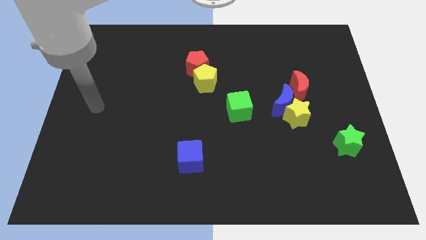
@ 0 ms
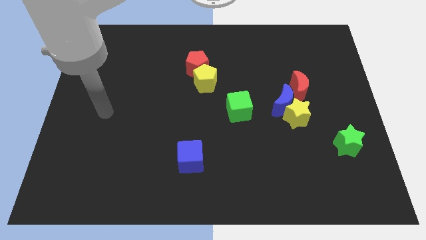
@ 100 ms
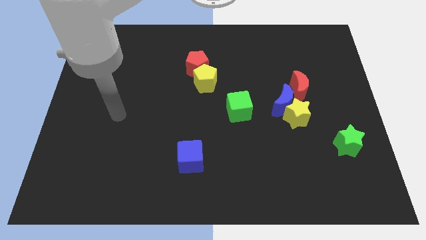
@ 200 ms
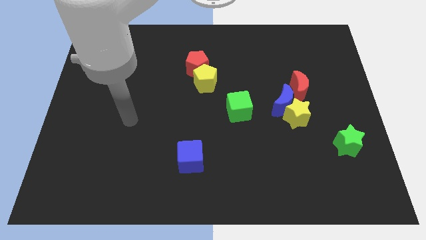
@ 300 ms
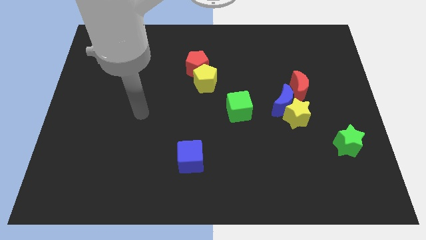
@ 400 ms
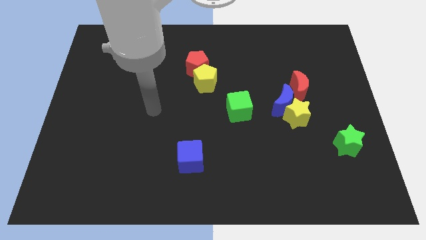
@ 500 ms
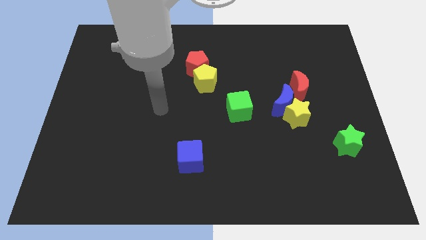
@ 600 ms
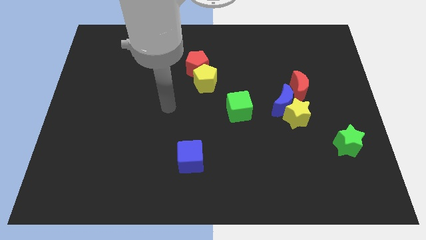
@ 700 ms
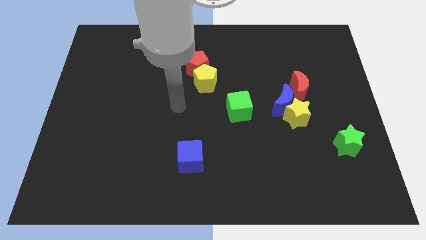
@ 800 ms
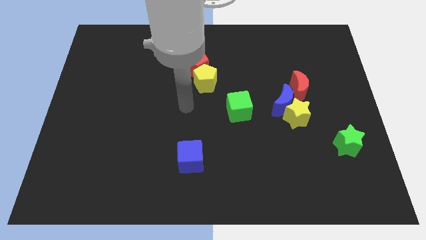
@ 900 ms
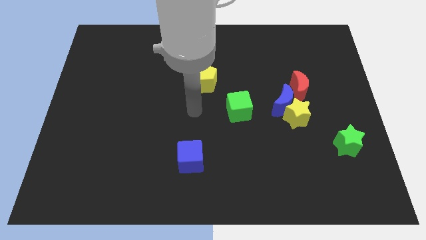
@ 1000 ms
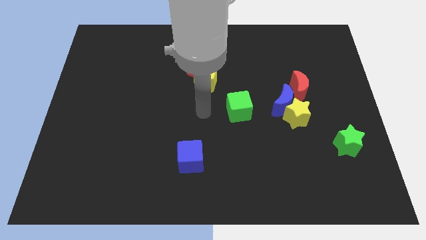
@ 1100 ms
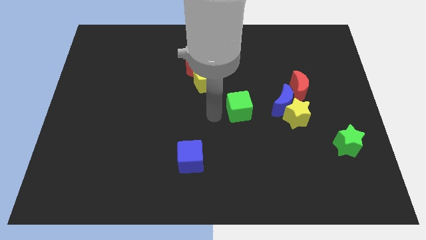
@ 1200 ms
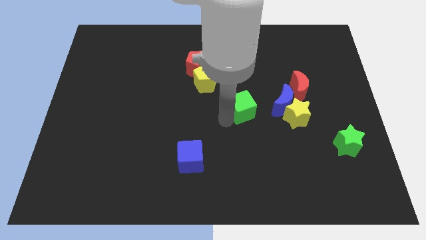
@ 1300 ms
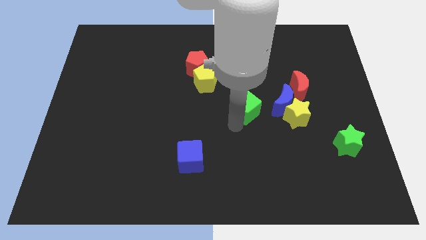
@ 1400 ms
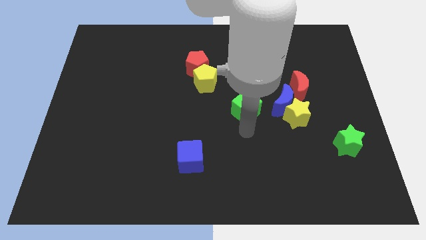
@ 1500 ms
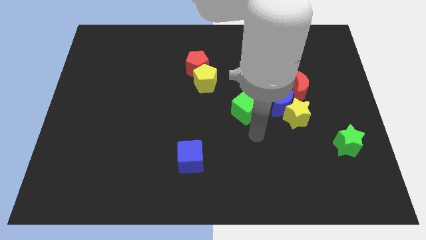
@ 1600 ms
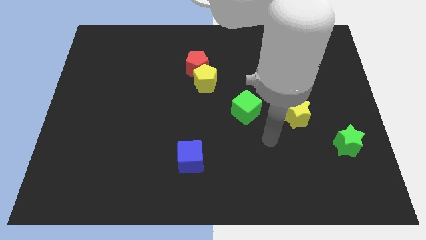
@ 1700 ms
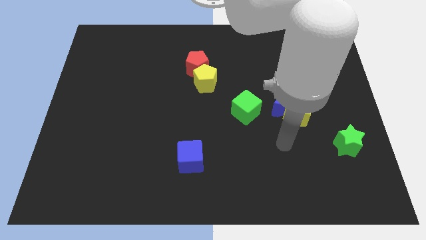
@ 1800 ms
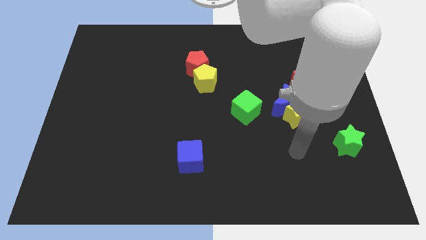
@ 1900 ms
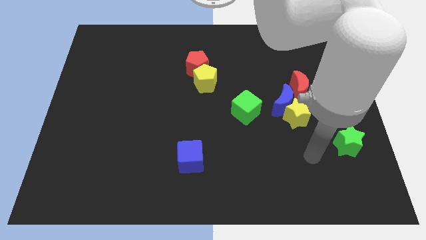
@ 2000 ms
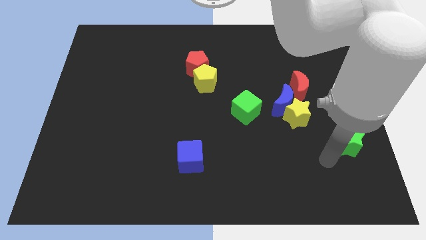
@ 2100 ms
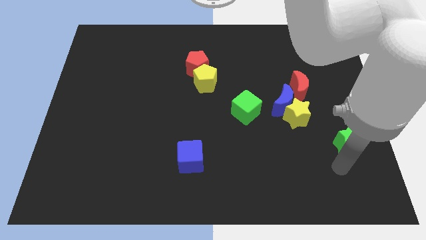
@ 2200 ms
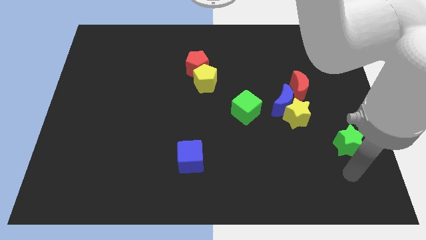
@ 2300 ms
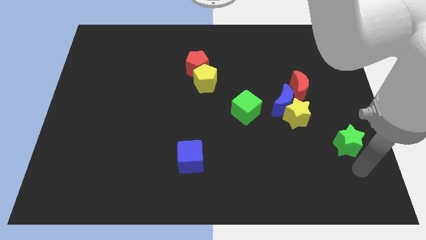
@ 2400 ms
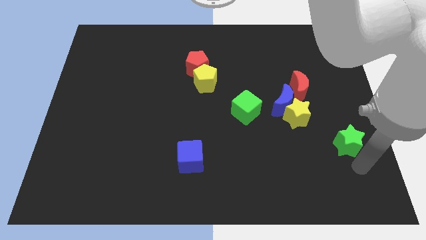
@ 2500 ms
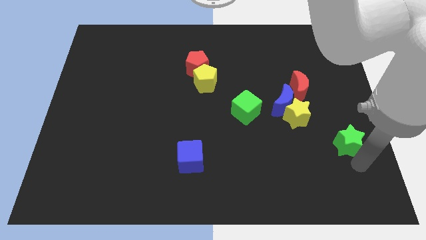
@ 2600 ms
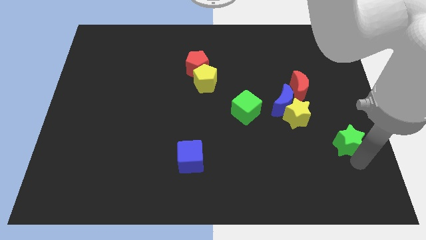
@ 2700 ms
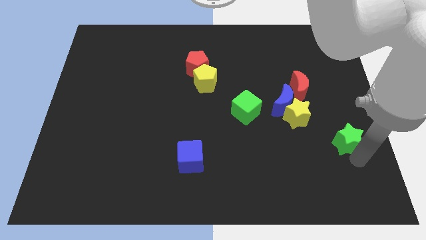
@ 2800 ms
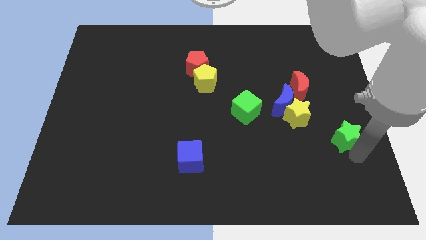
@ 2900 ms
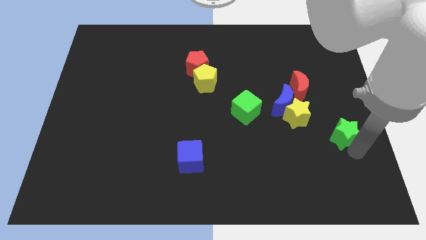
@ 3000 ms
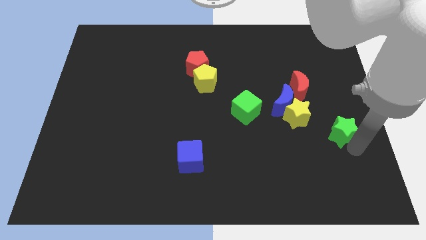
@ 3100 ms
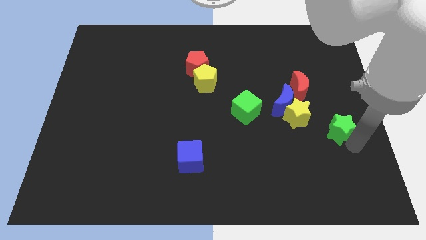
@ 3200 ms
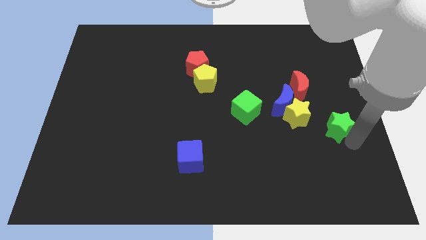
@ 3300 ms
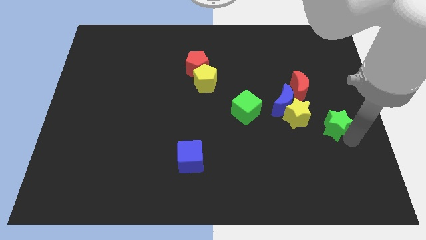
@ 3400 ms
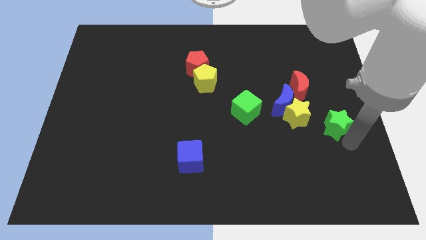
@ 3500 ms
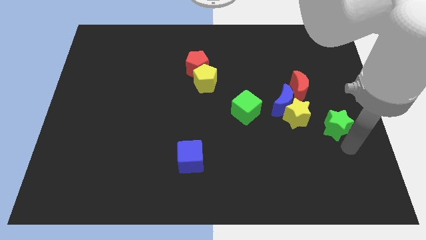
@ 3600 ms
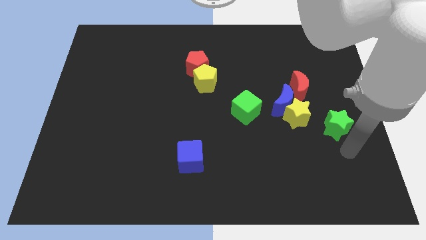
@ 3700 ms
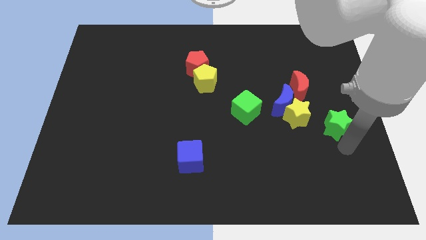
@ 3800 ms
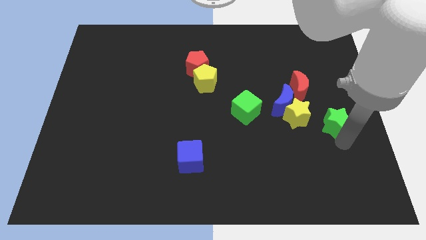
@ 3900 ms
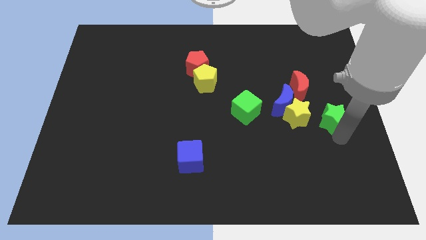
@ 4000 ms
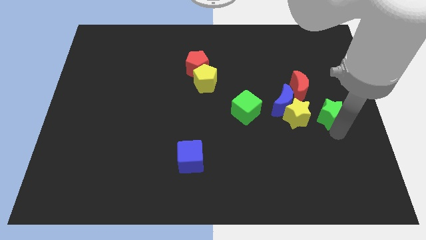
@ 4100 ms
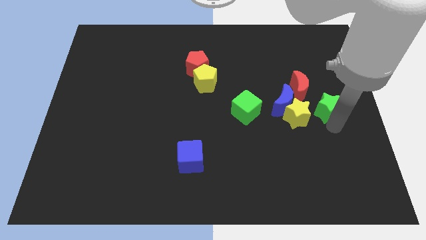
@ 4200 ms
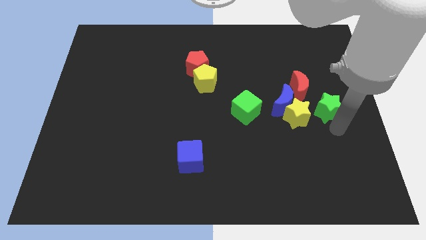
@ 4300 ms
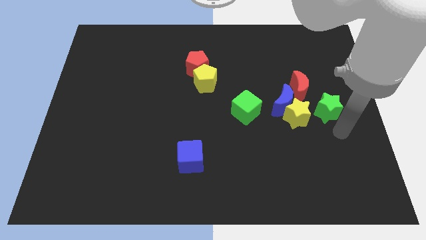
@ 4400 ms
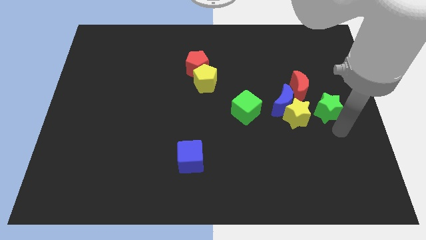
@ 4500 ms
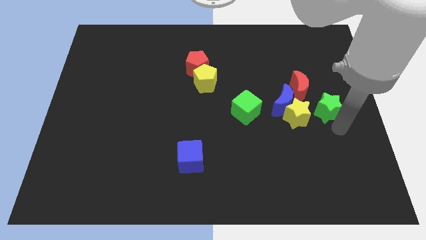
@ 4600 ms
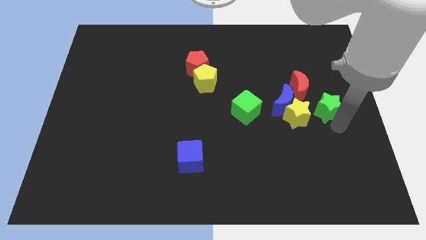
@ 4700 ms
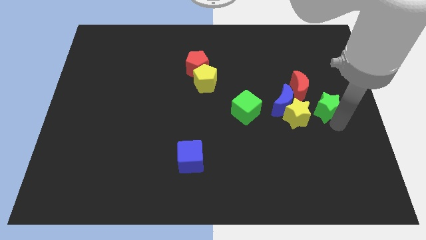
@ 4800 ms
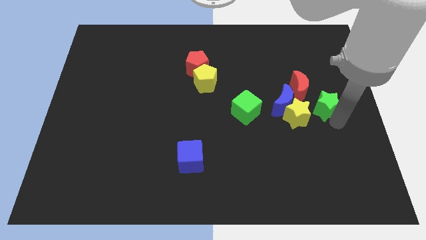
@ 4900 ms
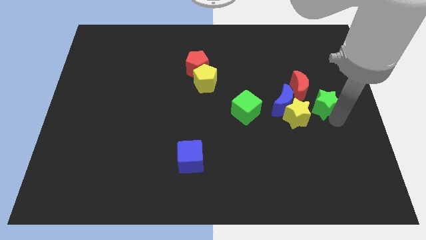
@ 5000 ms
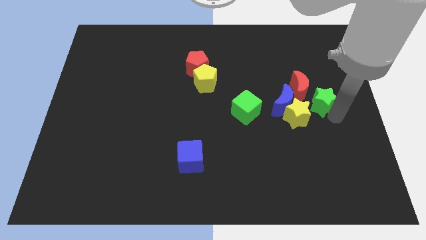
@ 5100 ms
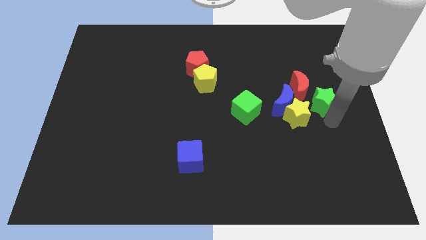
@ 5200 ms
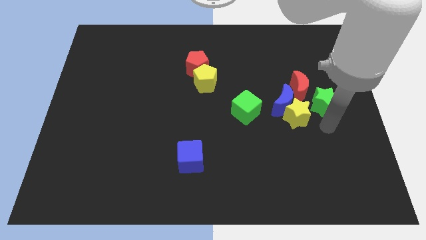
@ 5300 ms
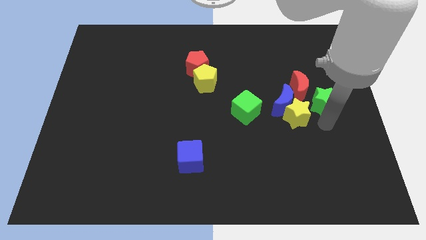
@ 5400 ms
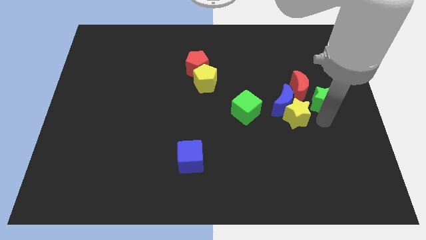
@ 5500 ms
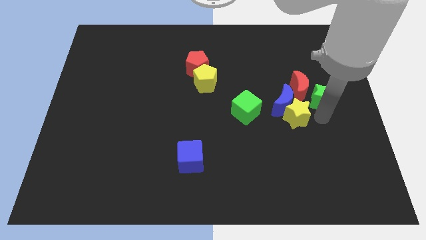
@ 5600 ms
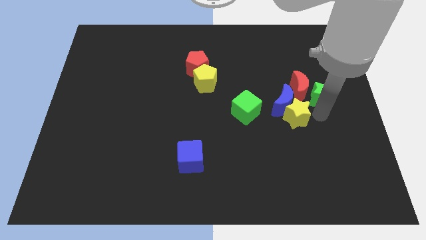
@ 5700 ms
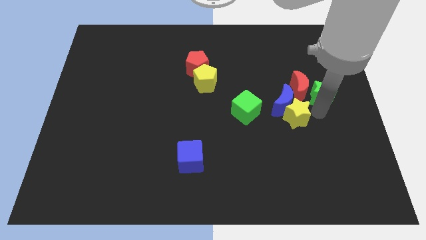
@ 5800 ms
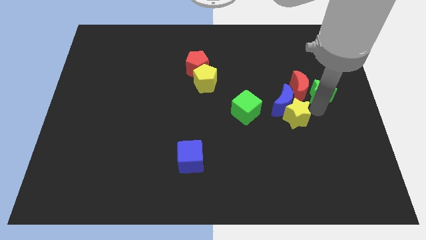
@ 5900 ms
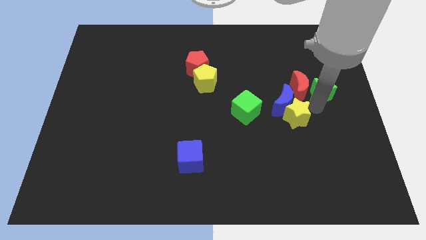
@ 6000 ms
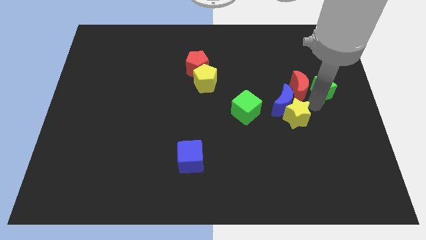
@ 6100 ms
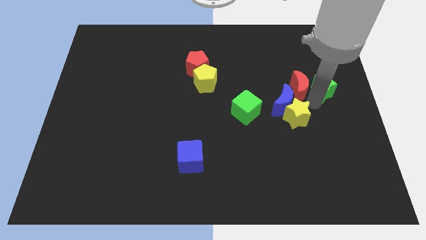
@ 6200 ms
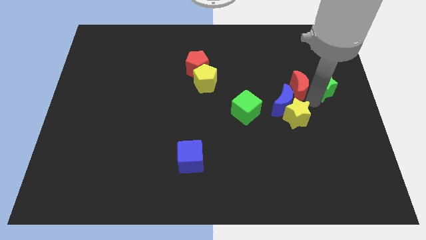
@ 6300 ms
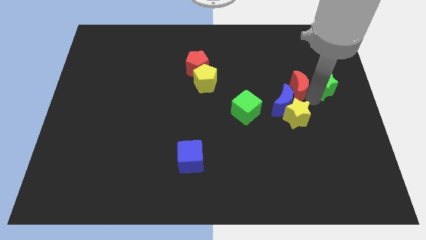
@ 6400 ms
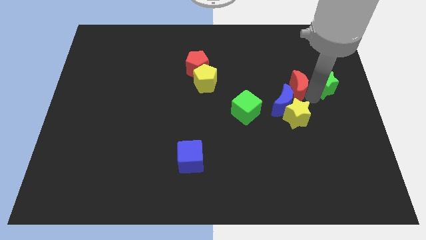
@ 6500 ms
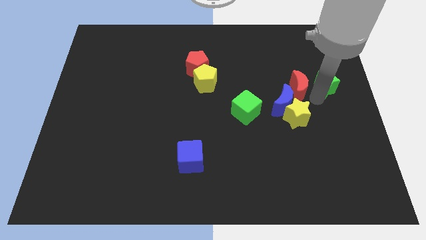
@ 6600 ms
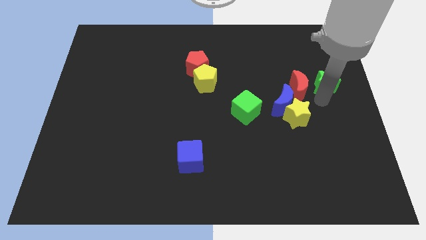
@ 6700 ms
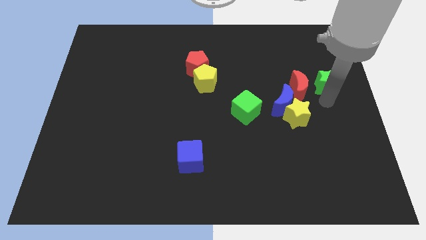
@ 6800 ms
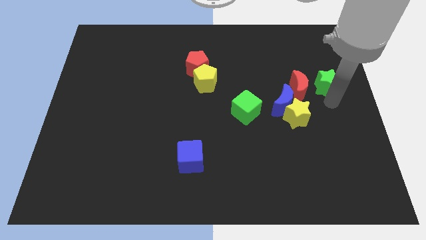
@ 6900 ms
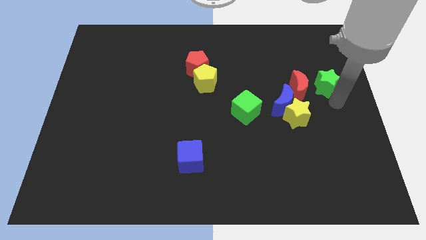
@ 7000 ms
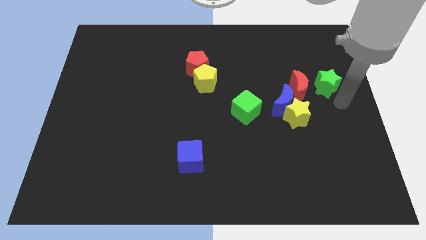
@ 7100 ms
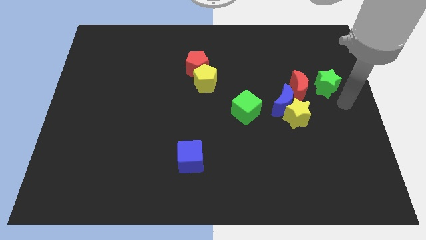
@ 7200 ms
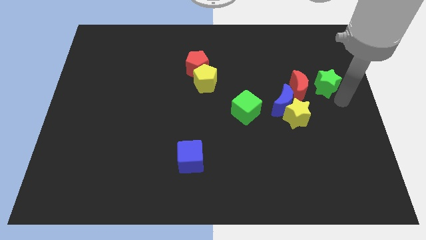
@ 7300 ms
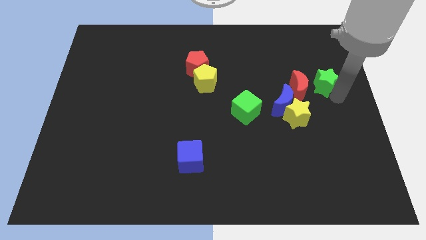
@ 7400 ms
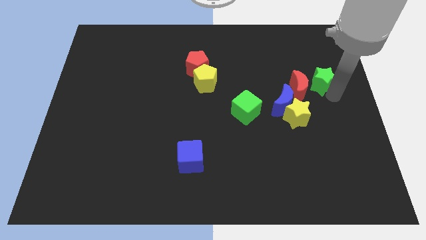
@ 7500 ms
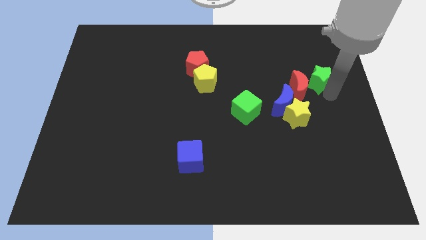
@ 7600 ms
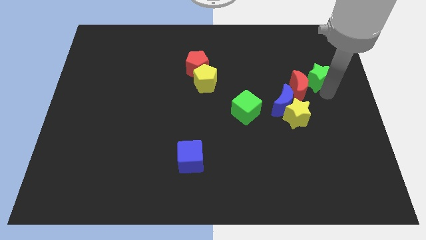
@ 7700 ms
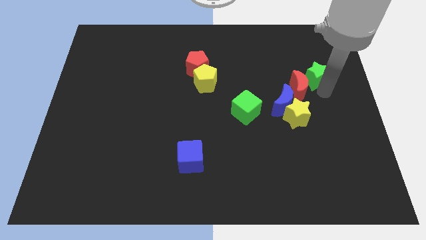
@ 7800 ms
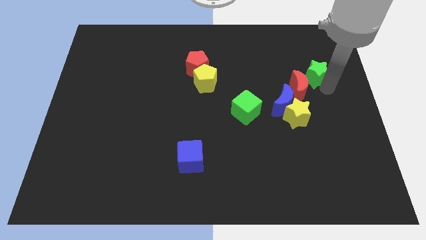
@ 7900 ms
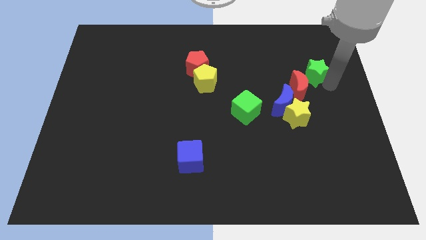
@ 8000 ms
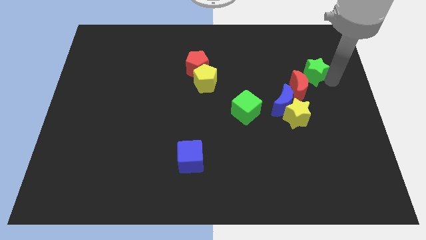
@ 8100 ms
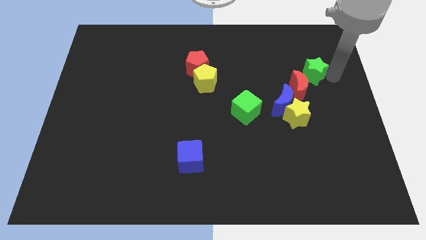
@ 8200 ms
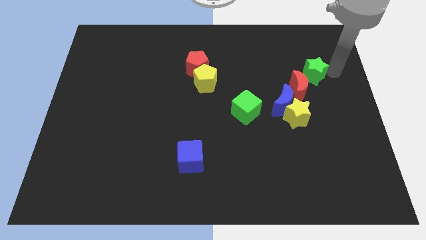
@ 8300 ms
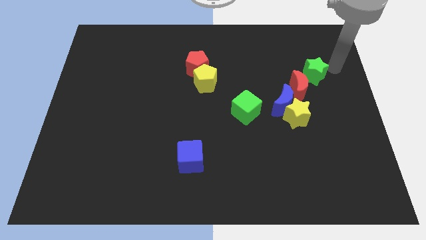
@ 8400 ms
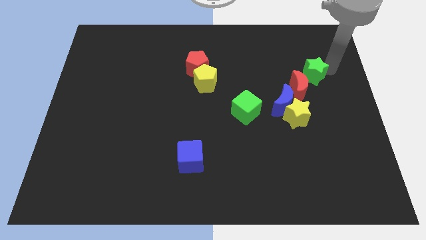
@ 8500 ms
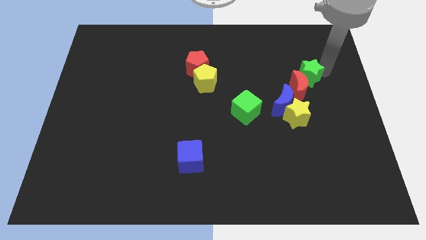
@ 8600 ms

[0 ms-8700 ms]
put the green star above the yellow star
